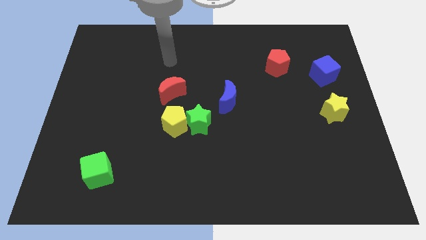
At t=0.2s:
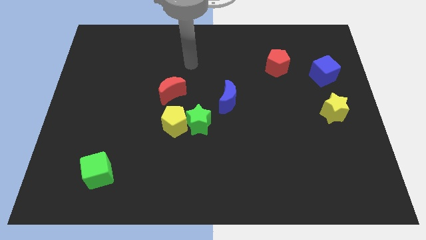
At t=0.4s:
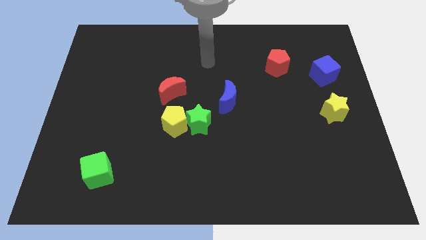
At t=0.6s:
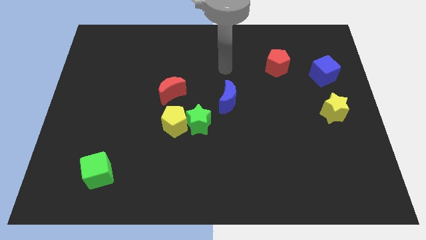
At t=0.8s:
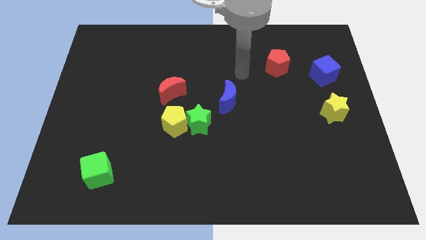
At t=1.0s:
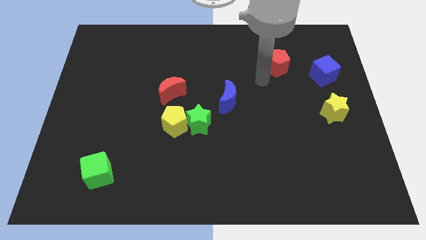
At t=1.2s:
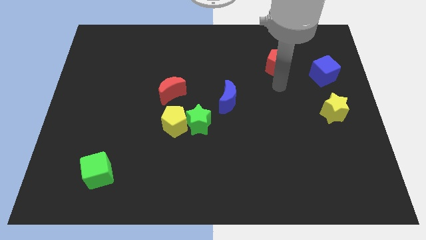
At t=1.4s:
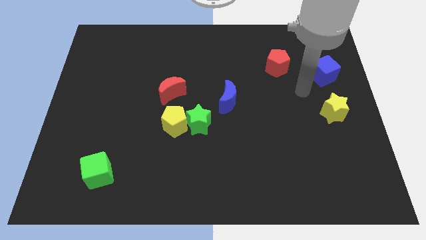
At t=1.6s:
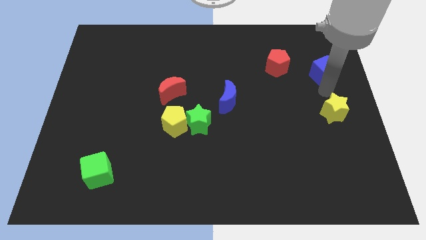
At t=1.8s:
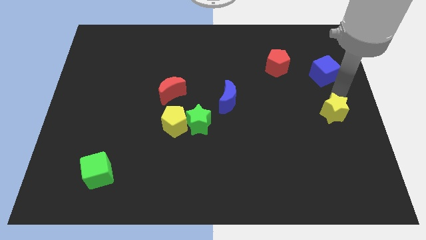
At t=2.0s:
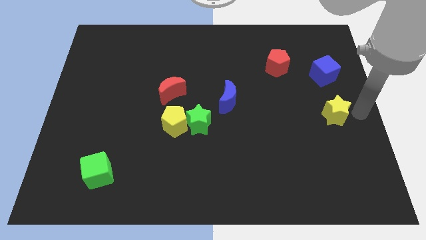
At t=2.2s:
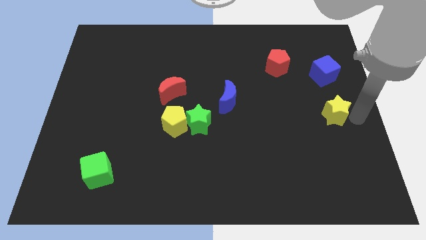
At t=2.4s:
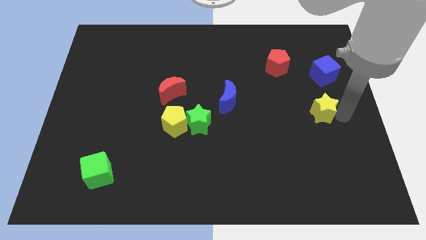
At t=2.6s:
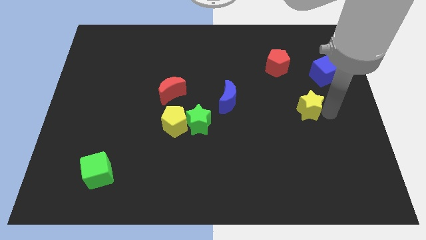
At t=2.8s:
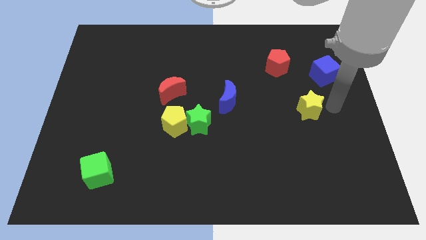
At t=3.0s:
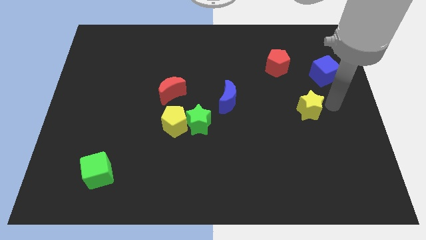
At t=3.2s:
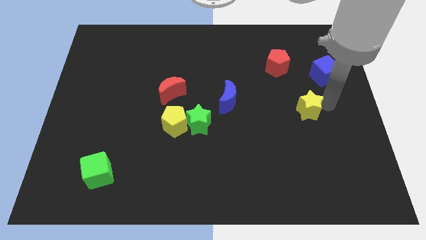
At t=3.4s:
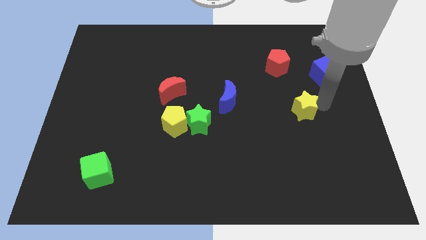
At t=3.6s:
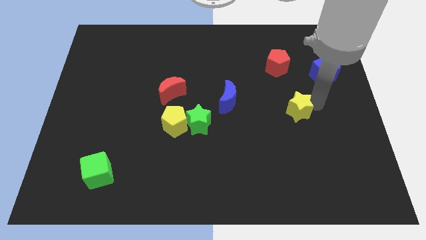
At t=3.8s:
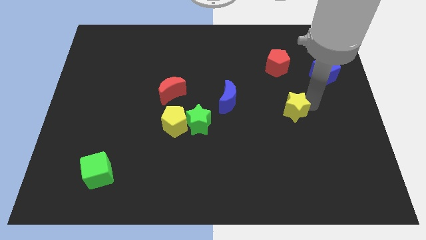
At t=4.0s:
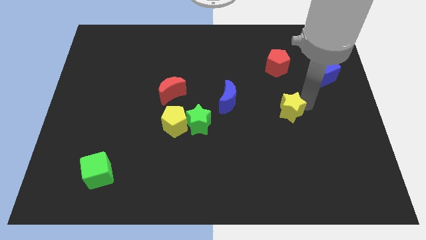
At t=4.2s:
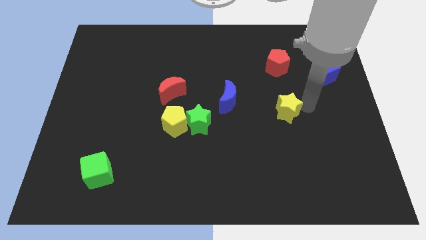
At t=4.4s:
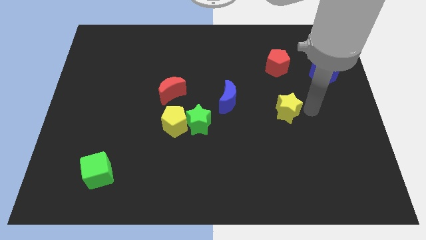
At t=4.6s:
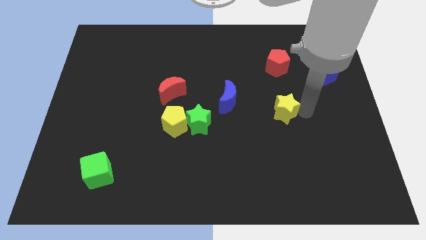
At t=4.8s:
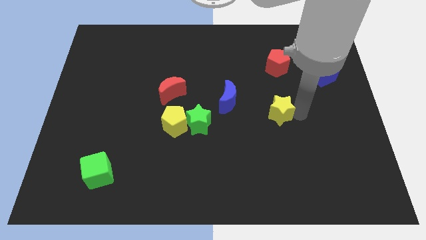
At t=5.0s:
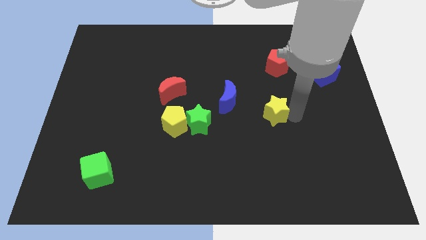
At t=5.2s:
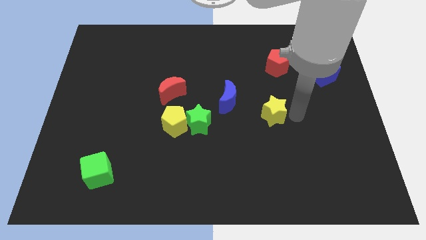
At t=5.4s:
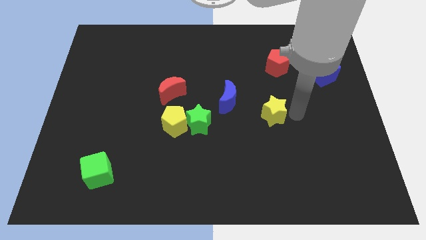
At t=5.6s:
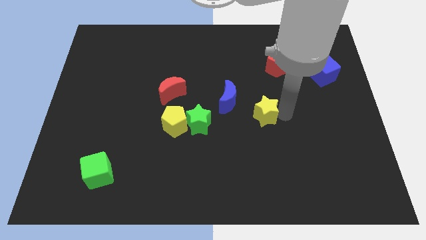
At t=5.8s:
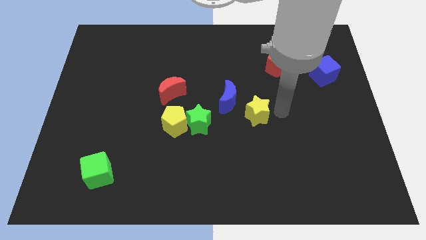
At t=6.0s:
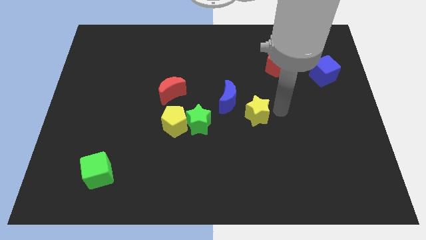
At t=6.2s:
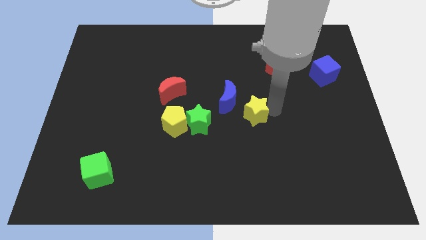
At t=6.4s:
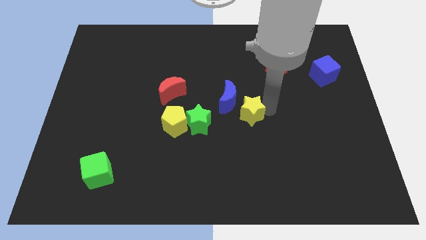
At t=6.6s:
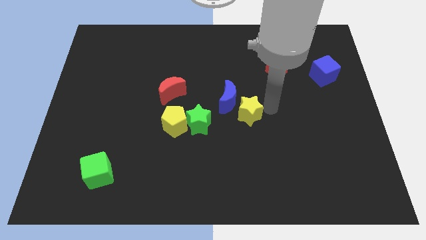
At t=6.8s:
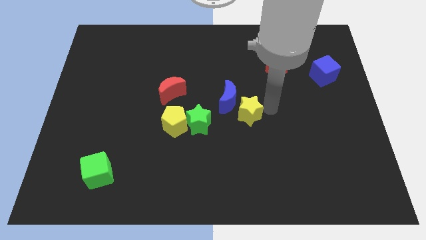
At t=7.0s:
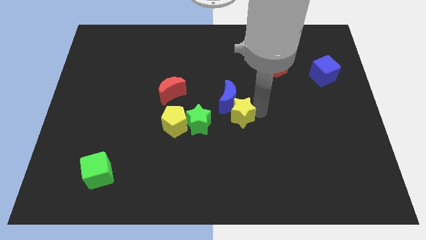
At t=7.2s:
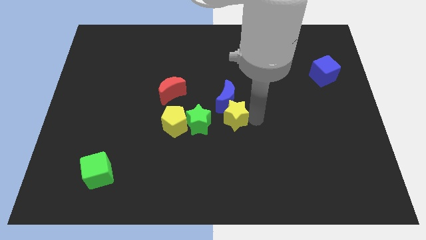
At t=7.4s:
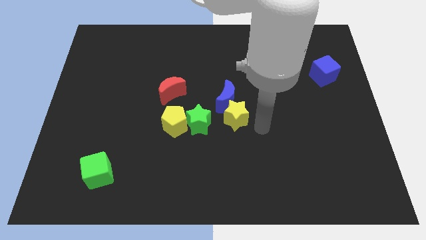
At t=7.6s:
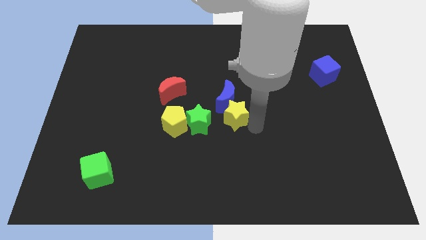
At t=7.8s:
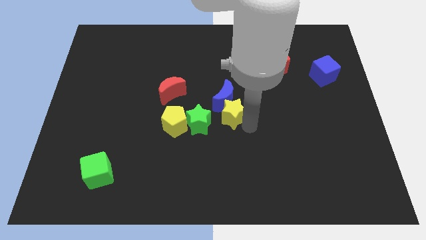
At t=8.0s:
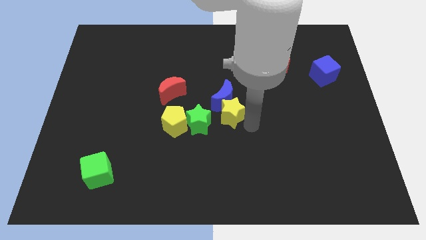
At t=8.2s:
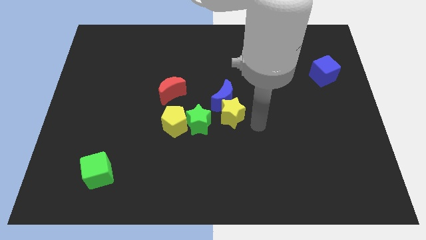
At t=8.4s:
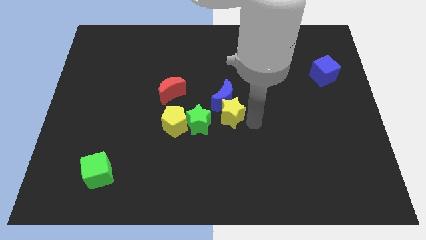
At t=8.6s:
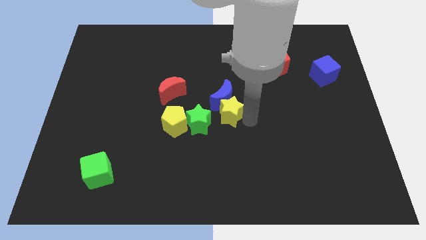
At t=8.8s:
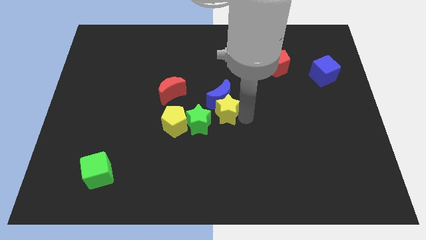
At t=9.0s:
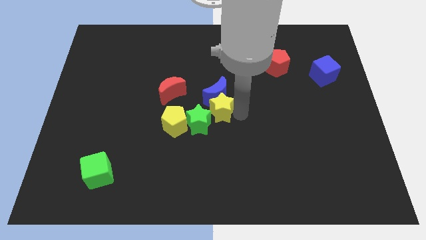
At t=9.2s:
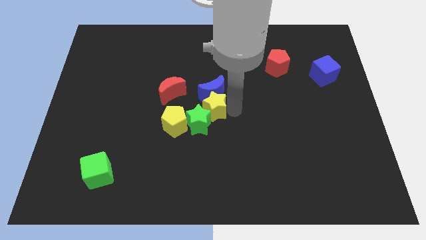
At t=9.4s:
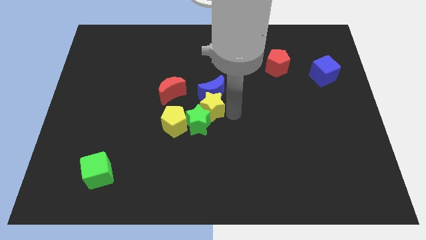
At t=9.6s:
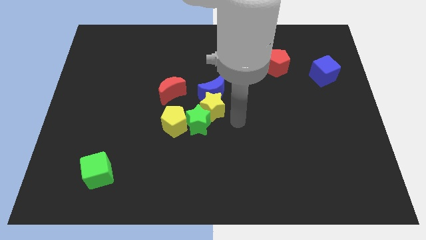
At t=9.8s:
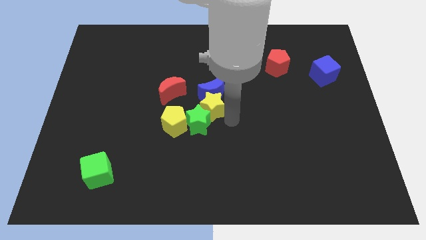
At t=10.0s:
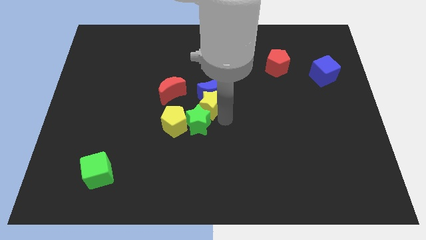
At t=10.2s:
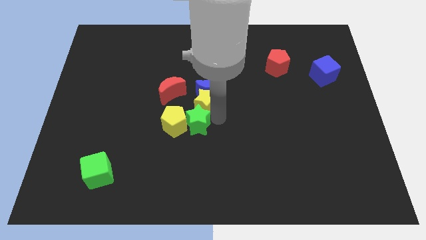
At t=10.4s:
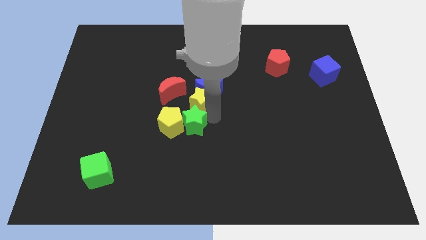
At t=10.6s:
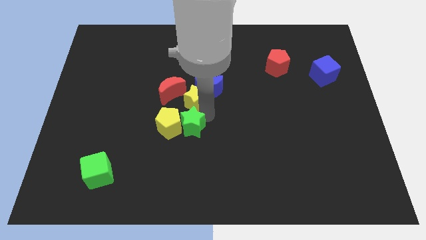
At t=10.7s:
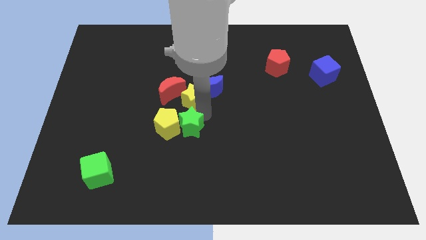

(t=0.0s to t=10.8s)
slide the yellow star towards the red moon

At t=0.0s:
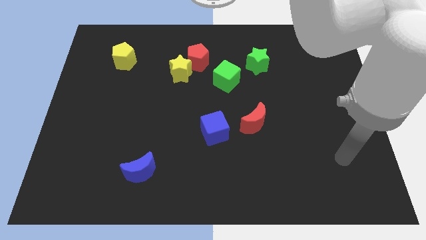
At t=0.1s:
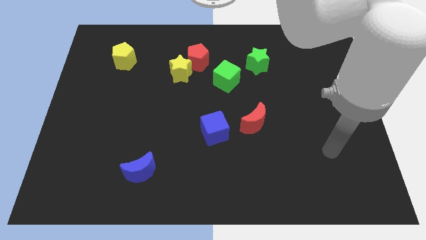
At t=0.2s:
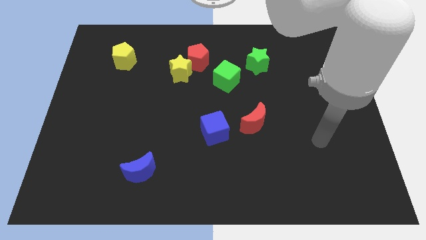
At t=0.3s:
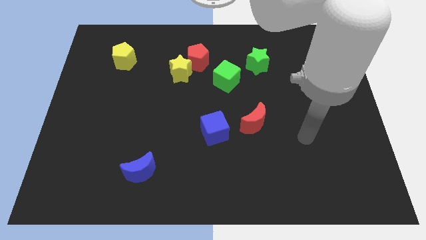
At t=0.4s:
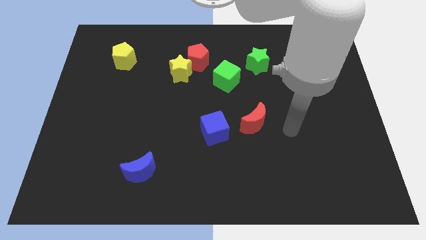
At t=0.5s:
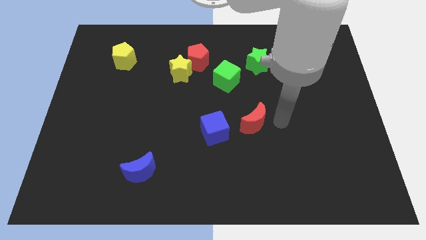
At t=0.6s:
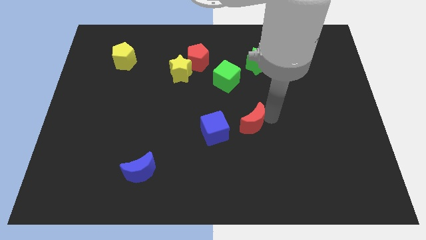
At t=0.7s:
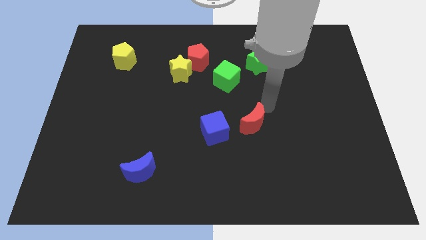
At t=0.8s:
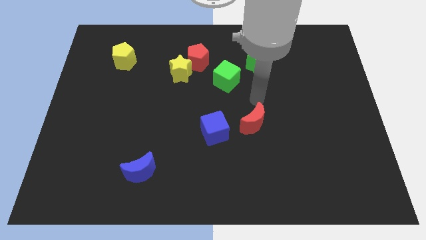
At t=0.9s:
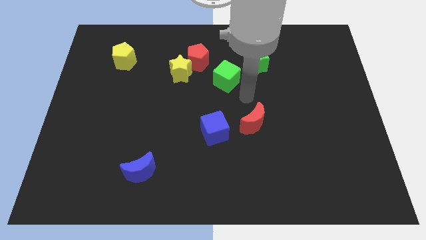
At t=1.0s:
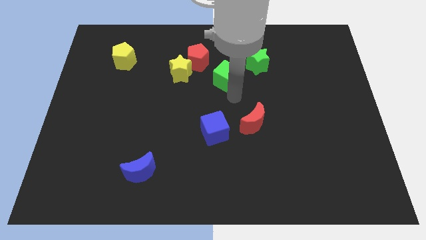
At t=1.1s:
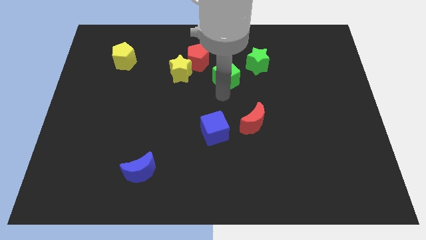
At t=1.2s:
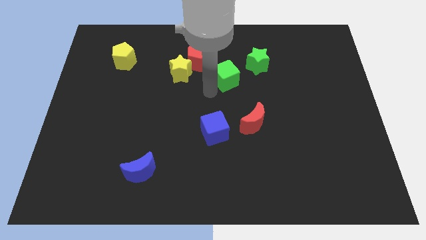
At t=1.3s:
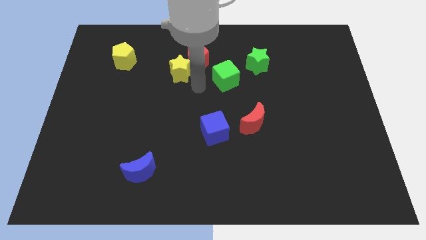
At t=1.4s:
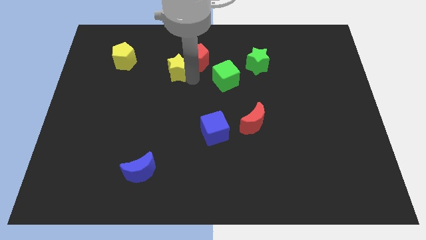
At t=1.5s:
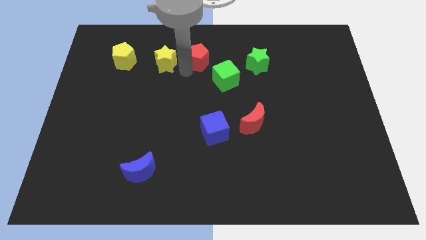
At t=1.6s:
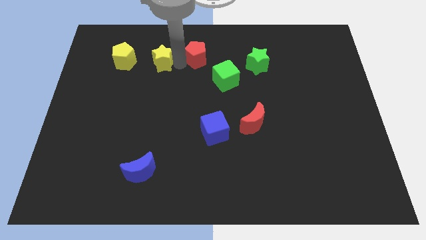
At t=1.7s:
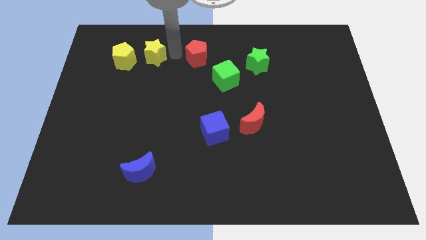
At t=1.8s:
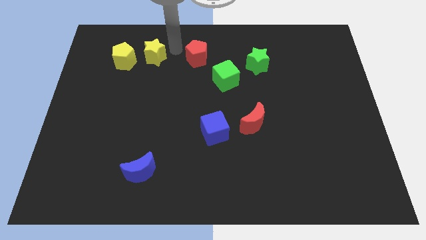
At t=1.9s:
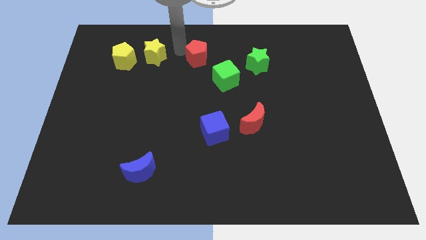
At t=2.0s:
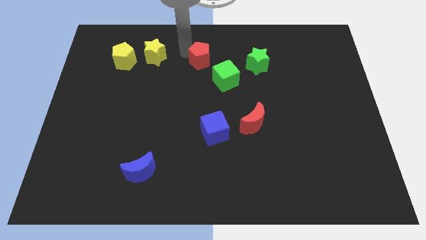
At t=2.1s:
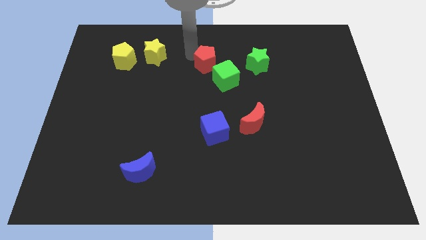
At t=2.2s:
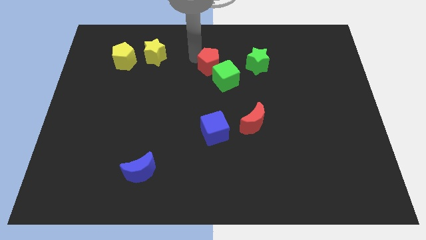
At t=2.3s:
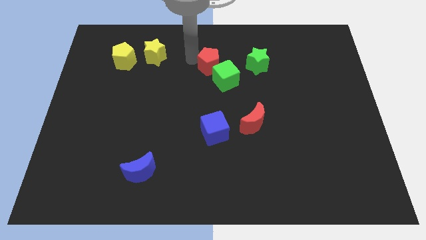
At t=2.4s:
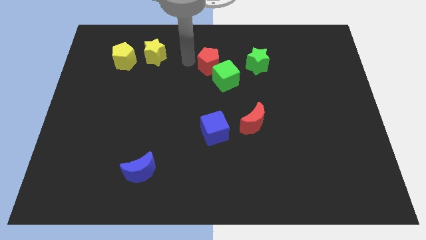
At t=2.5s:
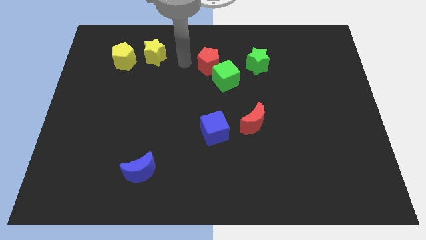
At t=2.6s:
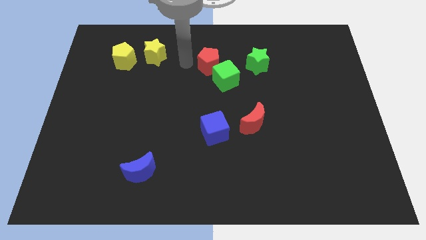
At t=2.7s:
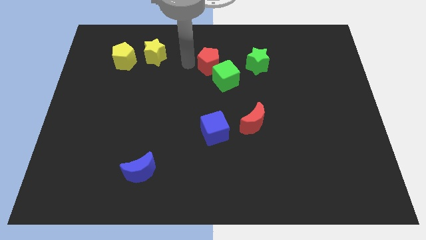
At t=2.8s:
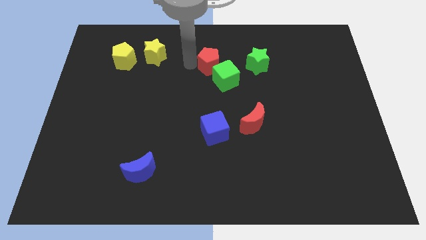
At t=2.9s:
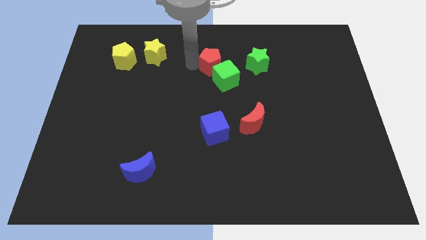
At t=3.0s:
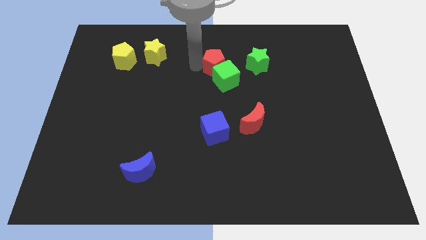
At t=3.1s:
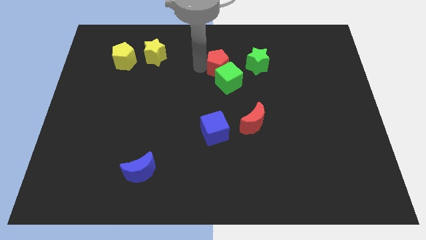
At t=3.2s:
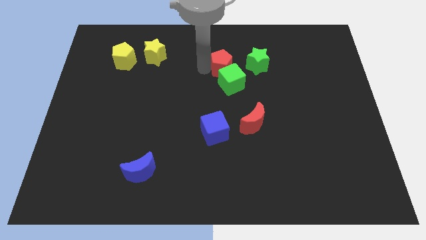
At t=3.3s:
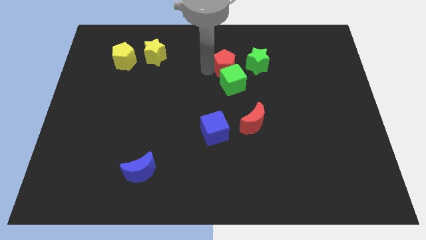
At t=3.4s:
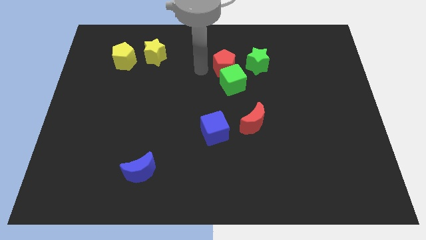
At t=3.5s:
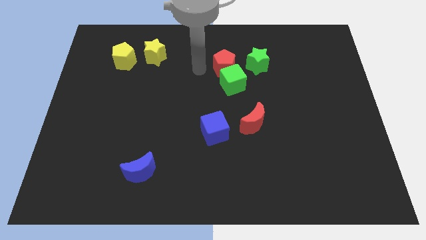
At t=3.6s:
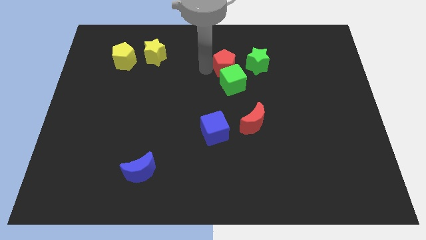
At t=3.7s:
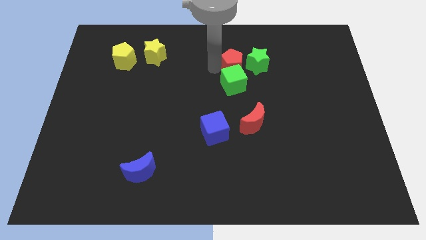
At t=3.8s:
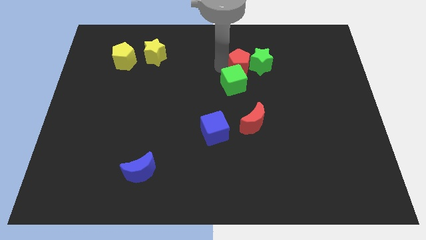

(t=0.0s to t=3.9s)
move the red pentagon towards the green star
